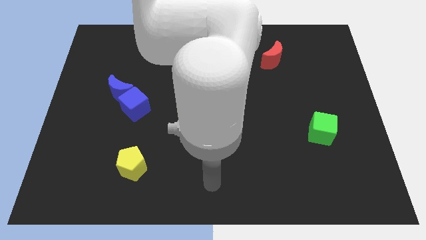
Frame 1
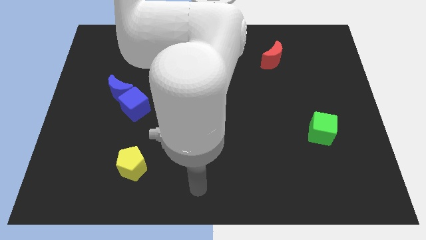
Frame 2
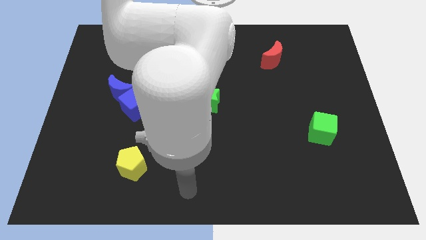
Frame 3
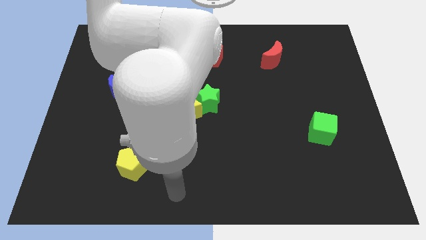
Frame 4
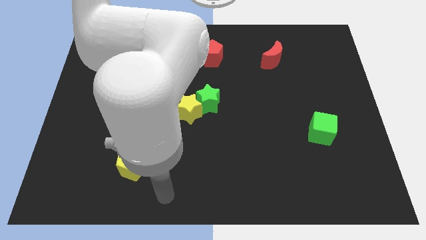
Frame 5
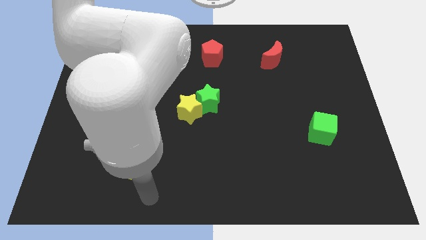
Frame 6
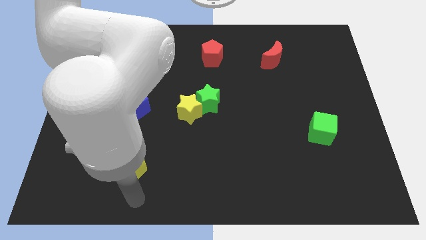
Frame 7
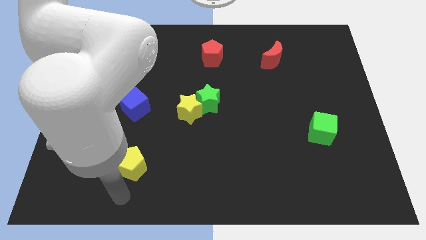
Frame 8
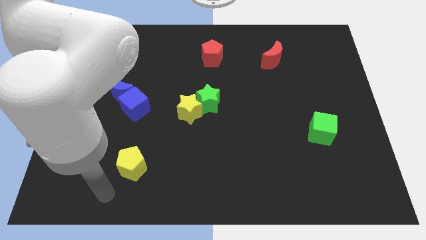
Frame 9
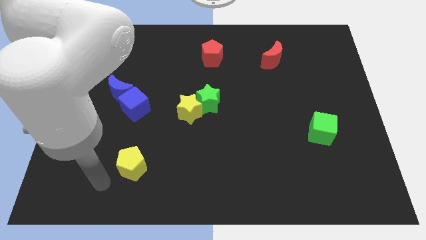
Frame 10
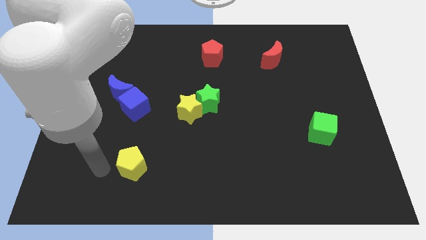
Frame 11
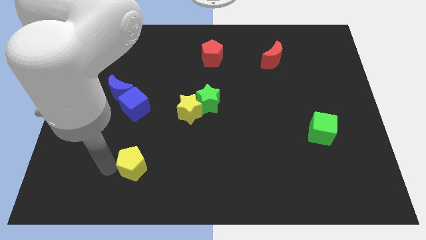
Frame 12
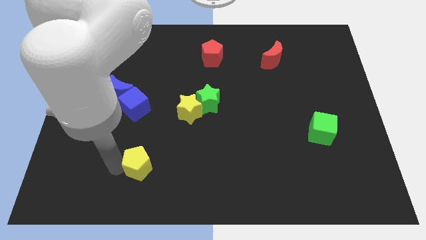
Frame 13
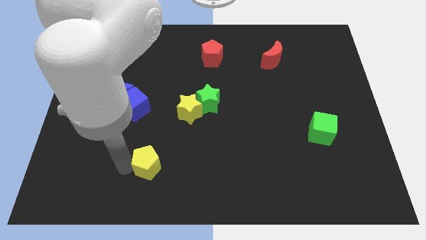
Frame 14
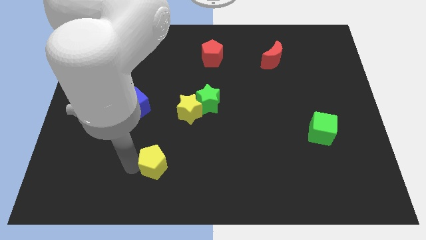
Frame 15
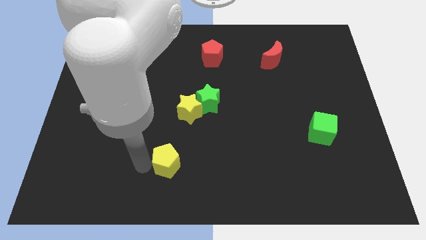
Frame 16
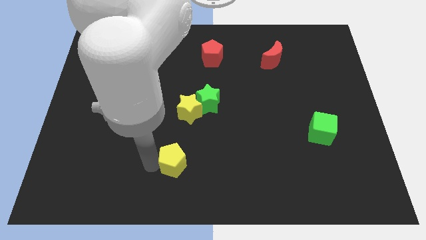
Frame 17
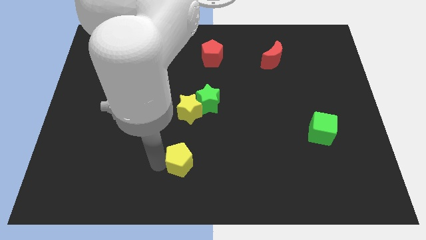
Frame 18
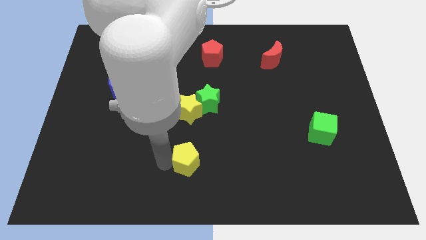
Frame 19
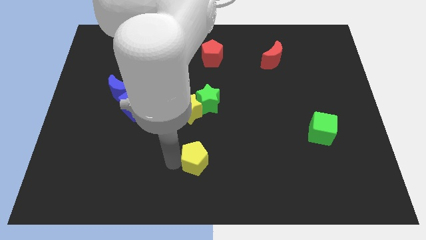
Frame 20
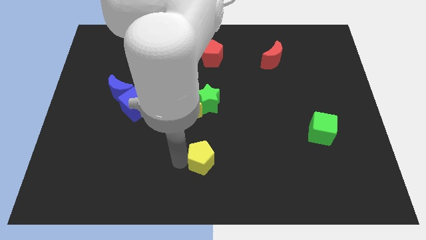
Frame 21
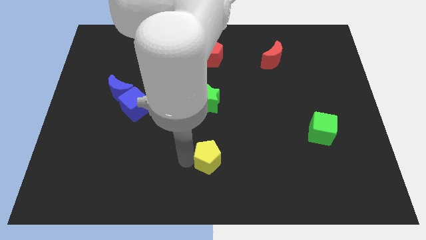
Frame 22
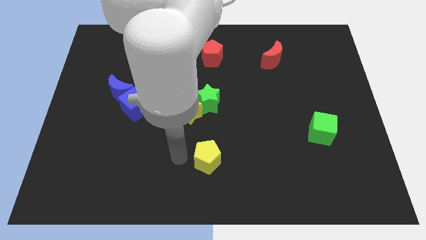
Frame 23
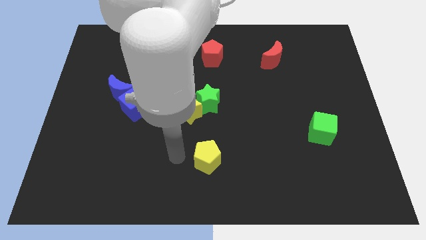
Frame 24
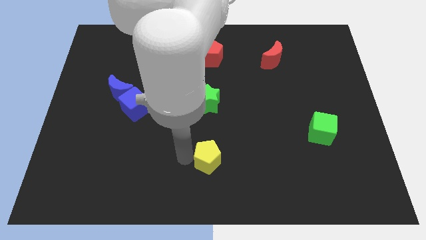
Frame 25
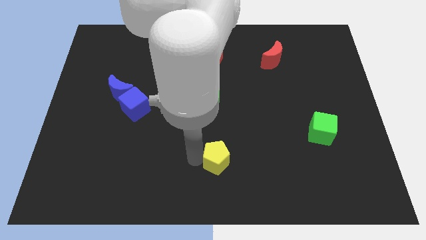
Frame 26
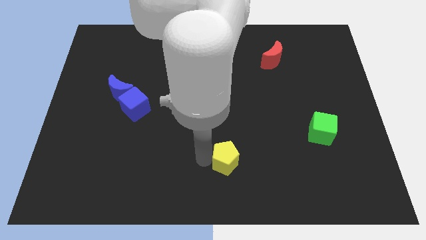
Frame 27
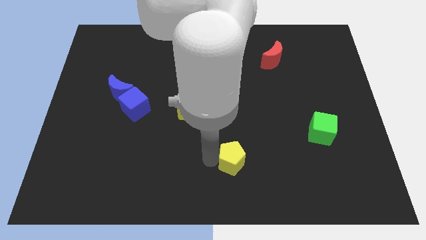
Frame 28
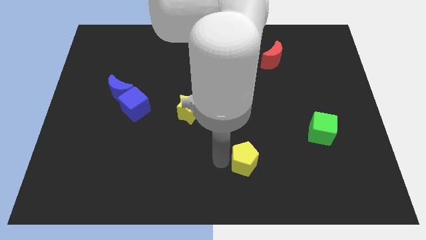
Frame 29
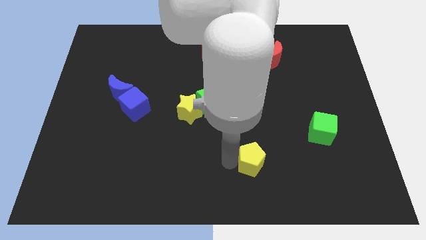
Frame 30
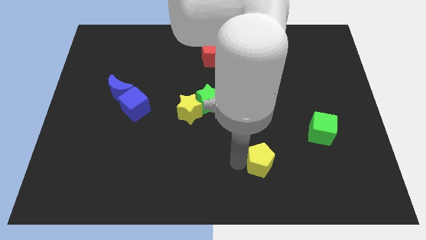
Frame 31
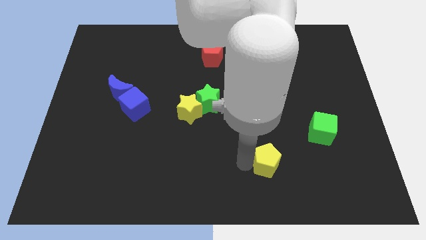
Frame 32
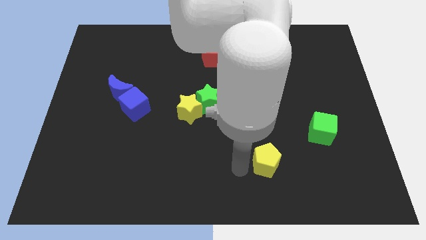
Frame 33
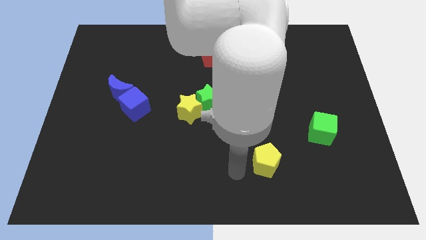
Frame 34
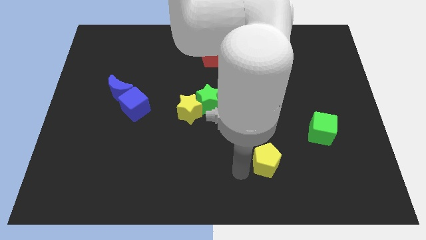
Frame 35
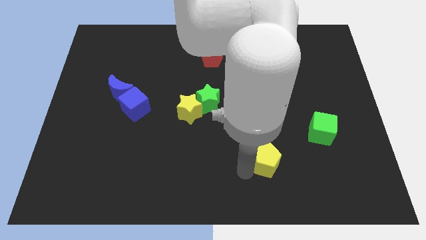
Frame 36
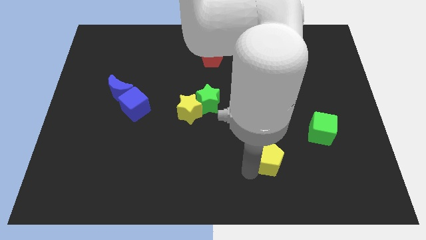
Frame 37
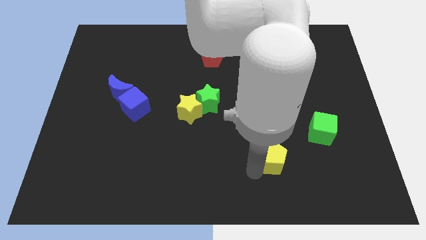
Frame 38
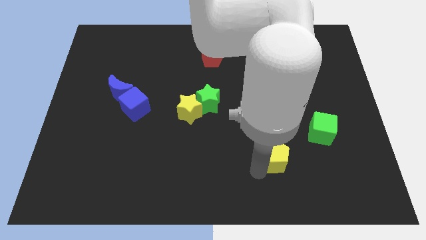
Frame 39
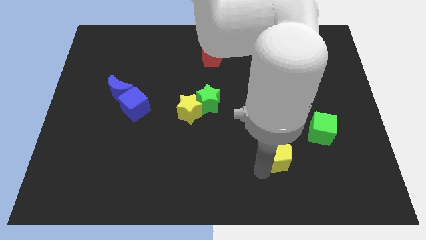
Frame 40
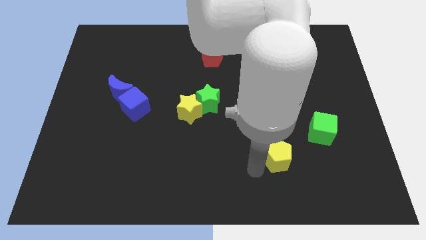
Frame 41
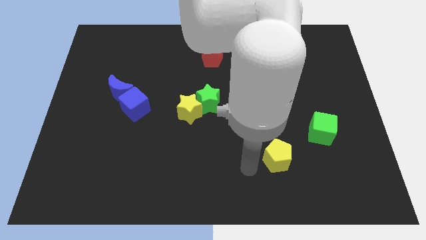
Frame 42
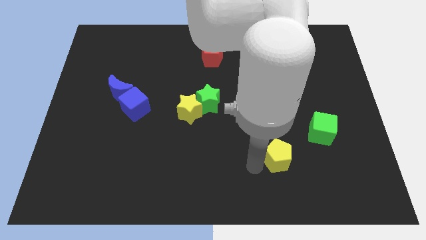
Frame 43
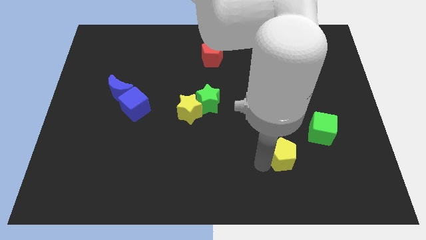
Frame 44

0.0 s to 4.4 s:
put the yellow pentagon diagonally down and to the left of the green cube

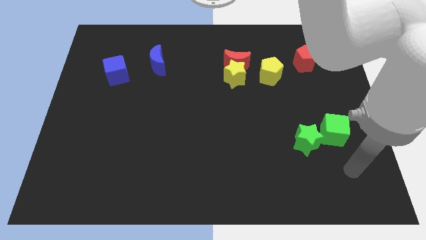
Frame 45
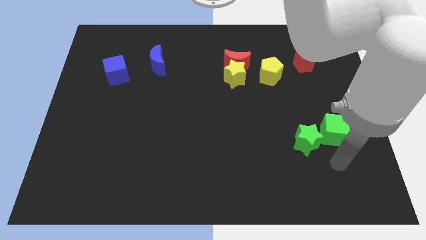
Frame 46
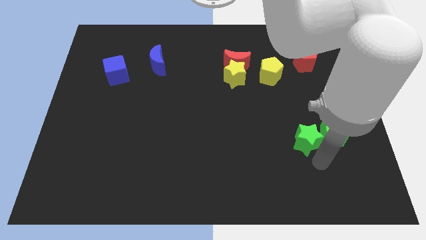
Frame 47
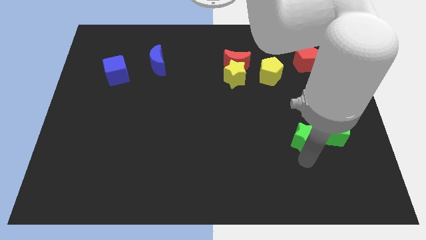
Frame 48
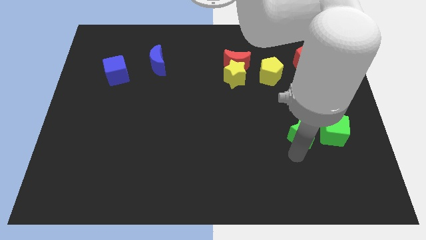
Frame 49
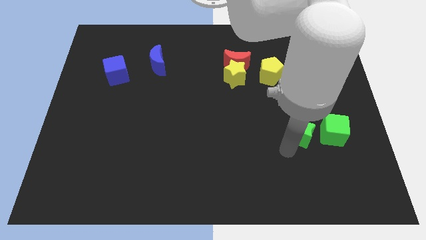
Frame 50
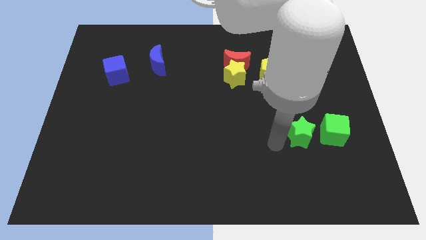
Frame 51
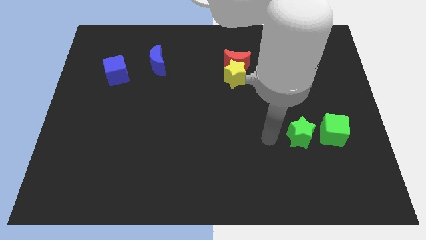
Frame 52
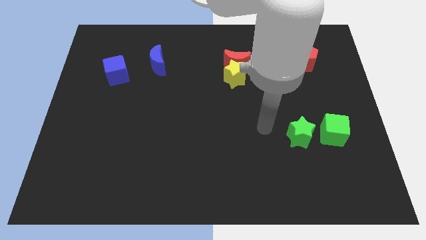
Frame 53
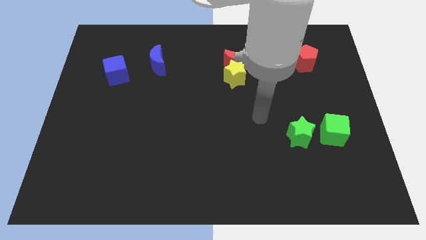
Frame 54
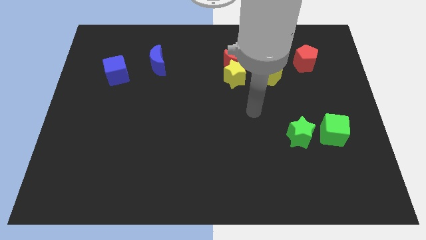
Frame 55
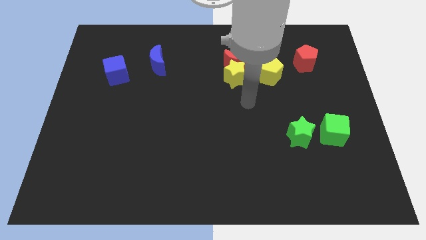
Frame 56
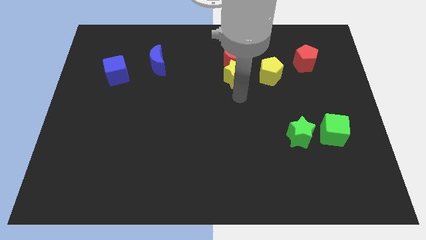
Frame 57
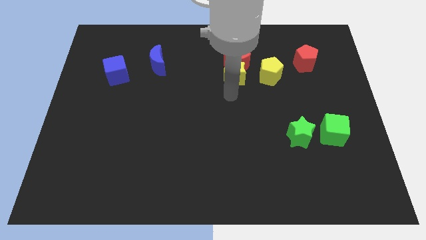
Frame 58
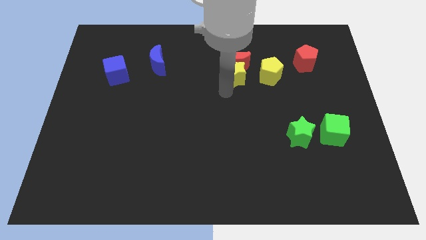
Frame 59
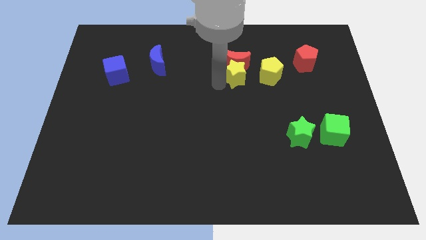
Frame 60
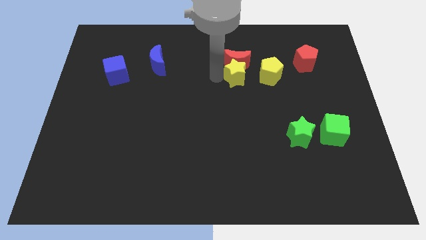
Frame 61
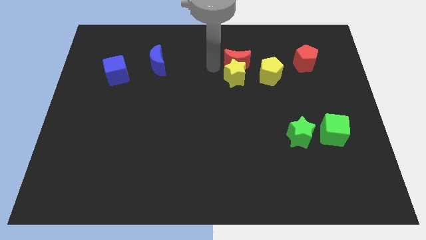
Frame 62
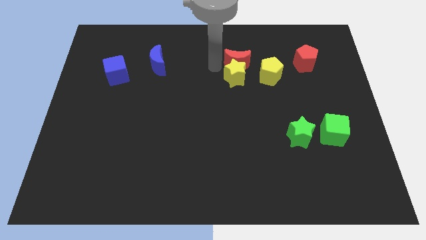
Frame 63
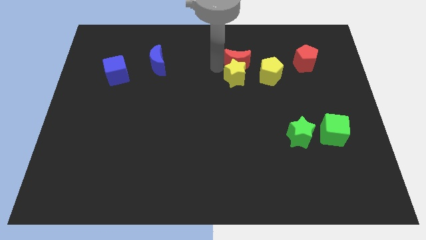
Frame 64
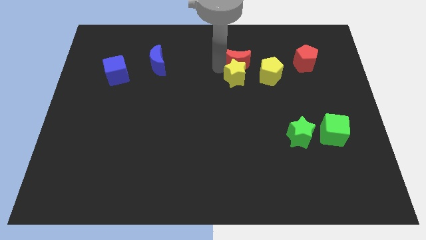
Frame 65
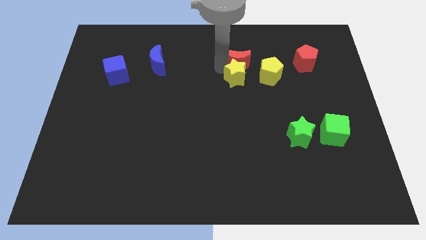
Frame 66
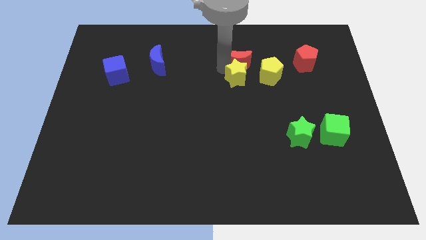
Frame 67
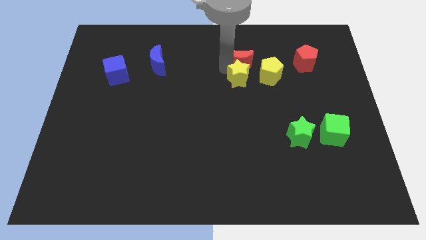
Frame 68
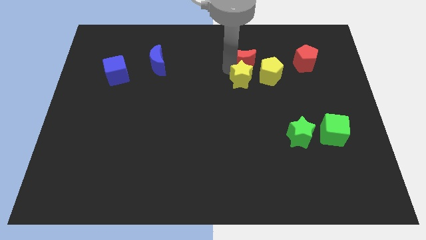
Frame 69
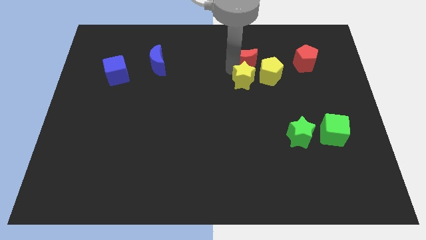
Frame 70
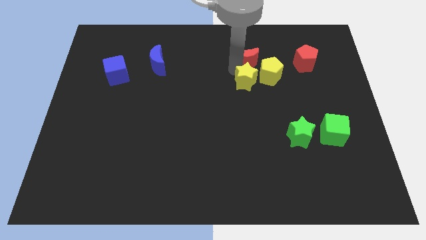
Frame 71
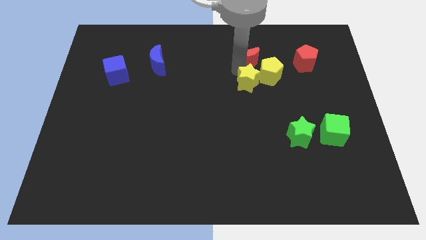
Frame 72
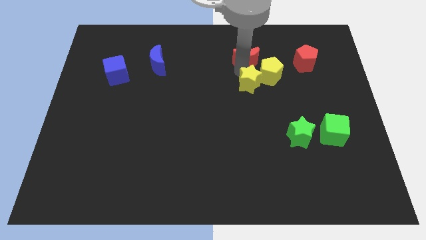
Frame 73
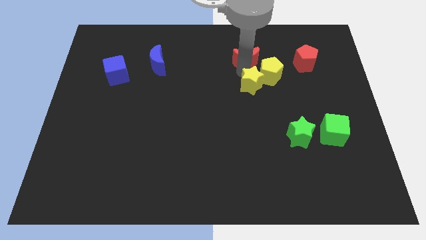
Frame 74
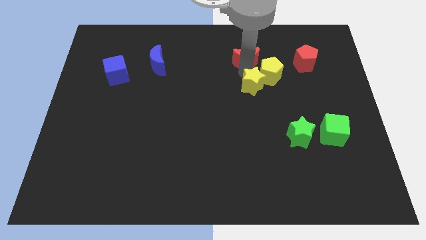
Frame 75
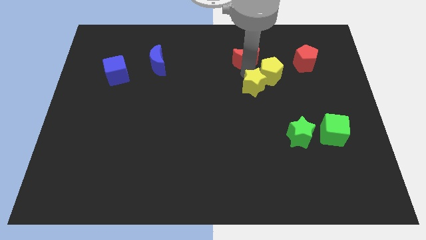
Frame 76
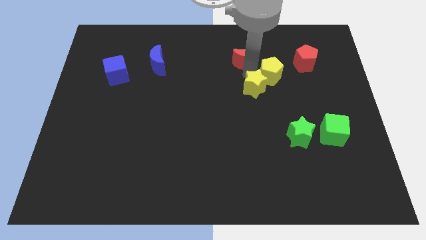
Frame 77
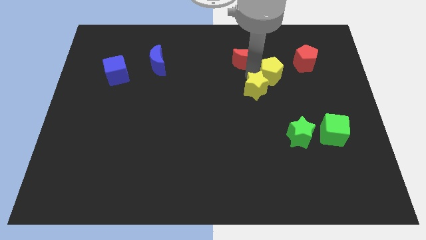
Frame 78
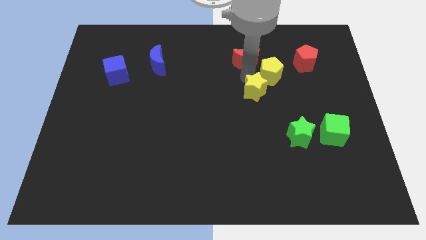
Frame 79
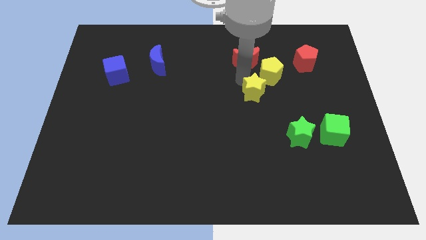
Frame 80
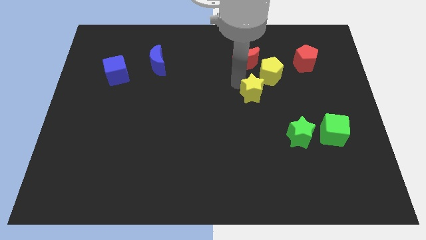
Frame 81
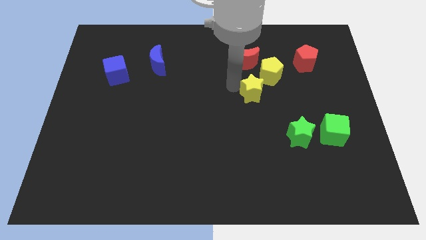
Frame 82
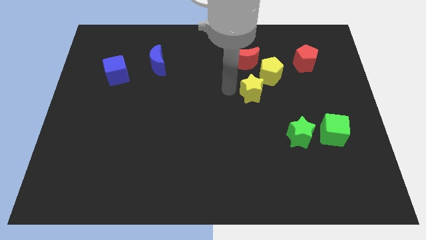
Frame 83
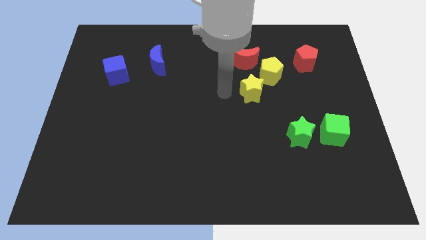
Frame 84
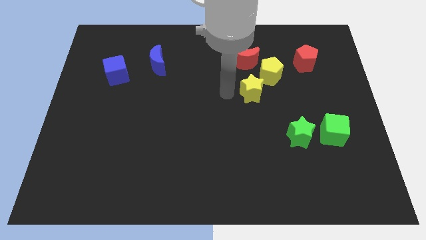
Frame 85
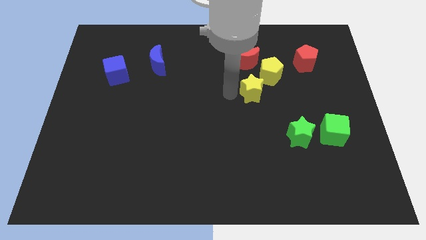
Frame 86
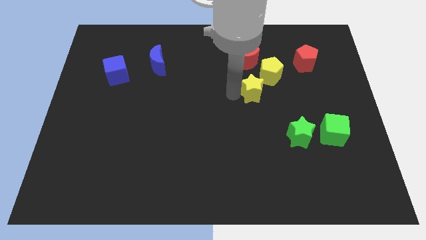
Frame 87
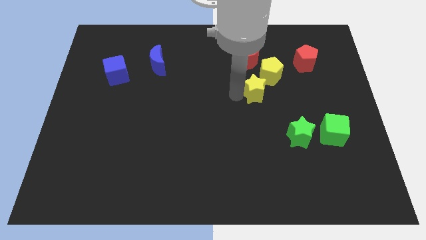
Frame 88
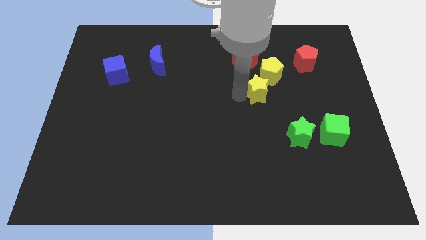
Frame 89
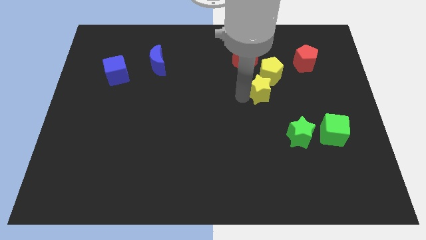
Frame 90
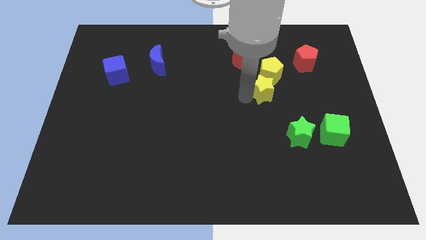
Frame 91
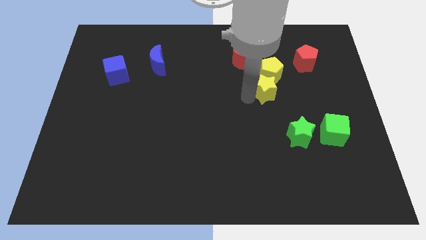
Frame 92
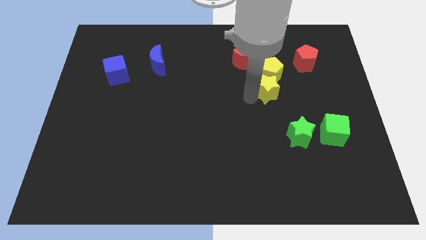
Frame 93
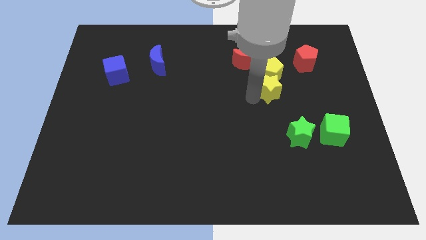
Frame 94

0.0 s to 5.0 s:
push the yellow star to the bottom right of the yellow pentagon
